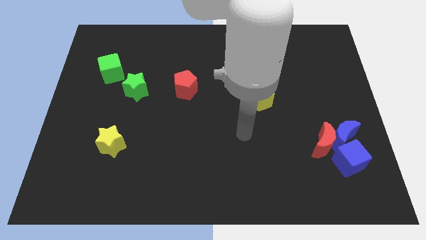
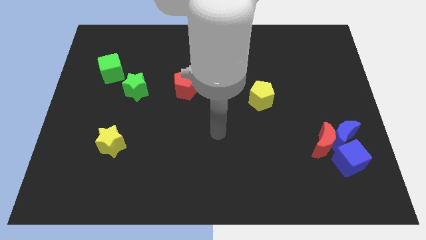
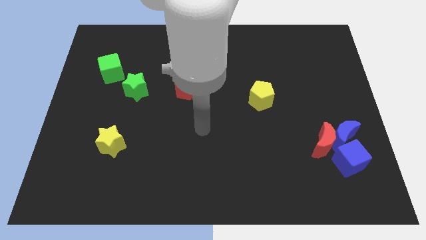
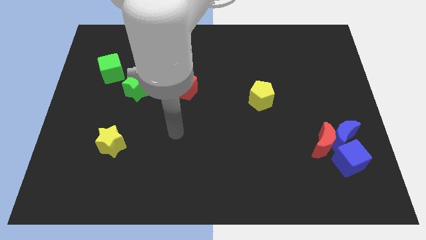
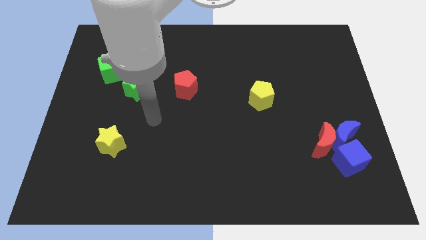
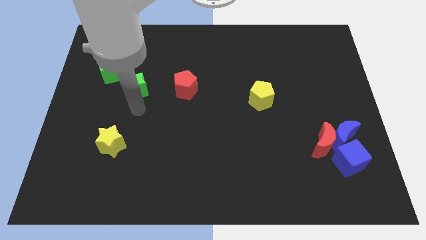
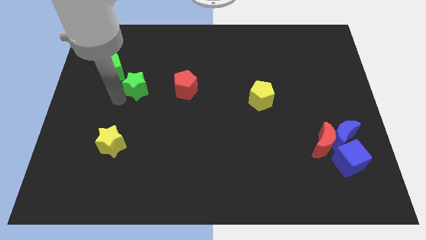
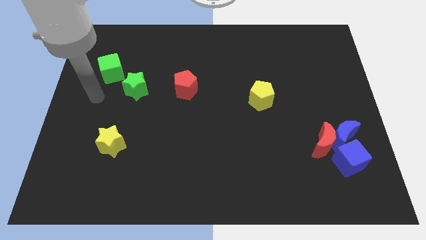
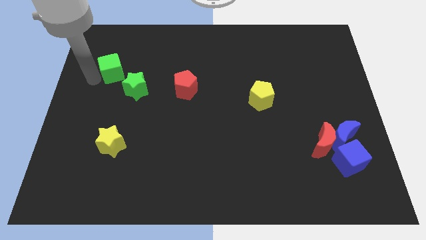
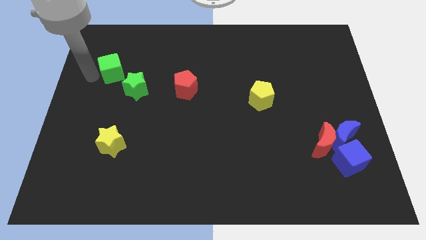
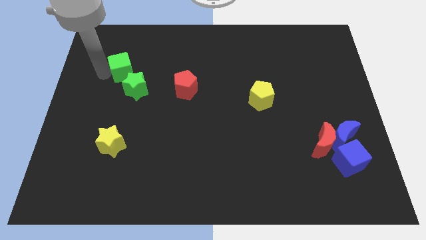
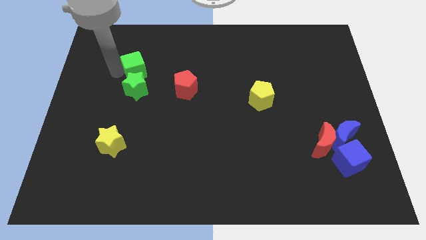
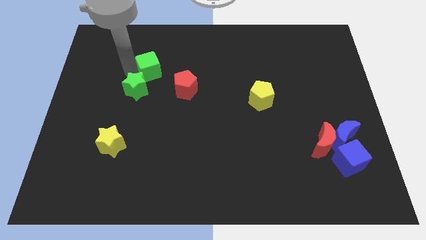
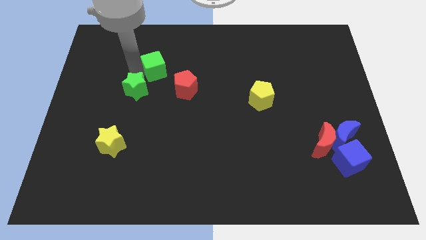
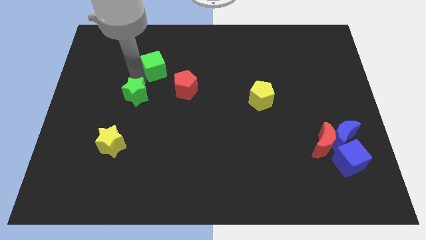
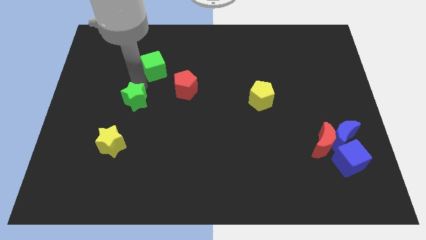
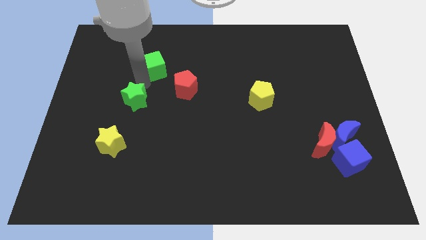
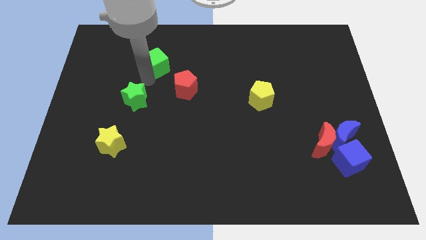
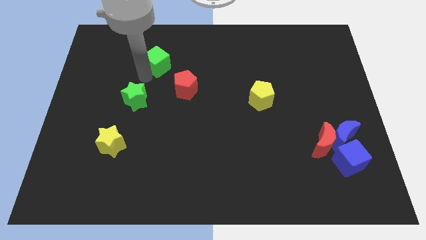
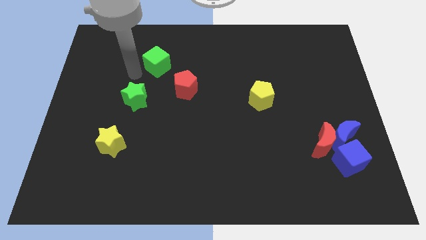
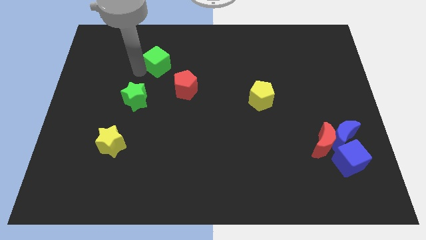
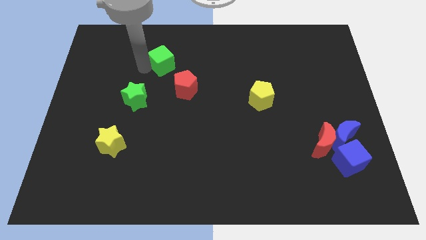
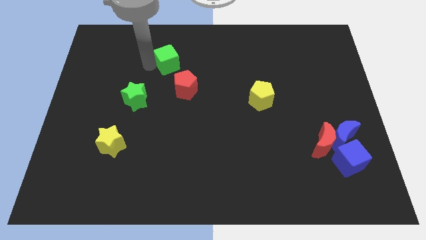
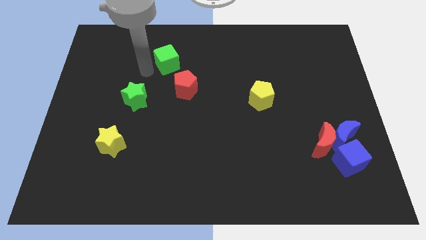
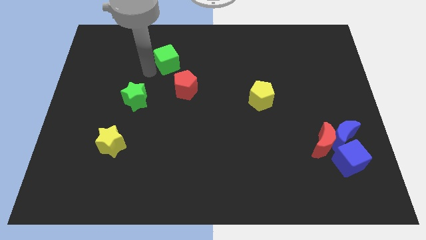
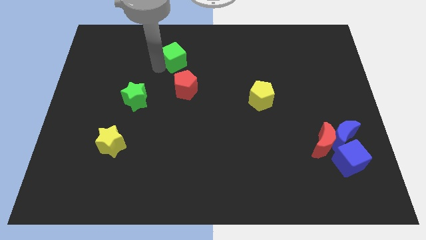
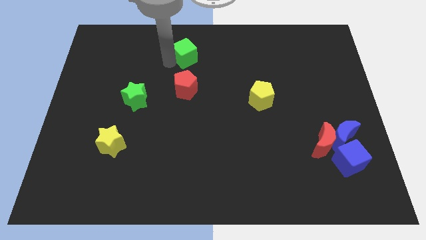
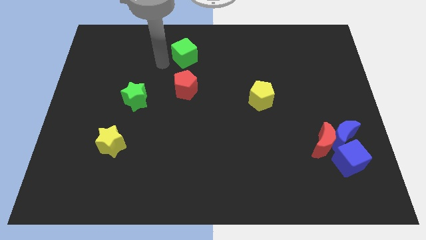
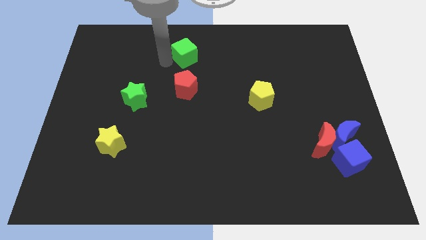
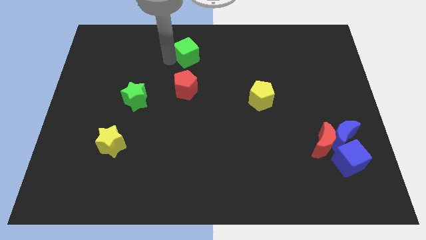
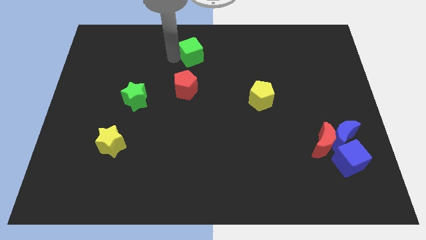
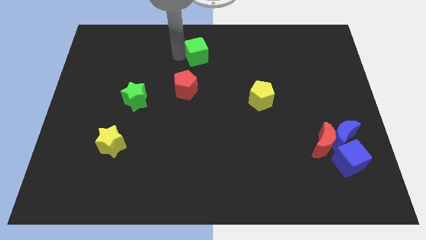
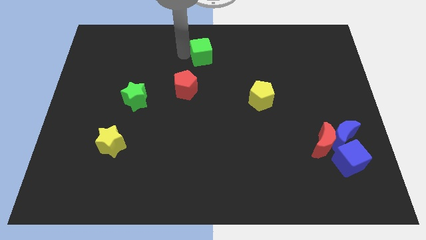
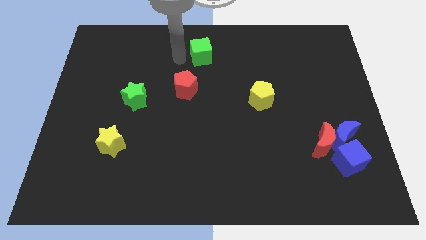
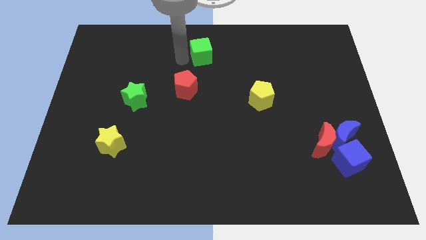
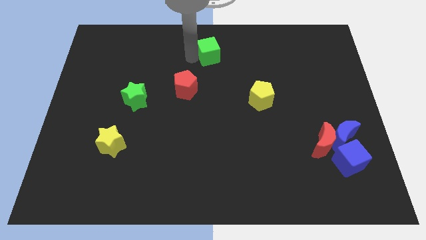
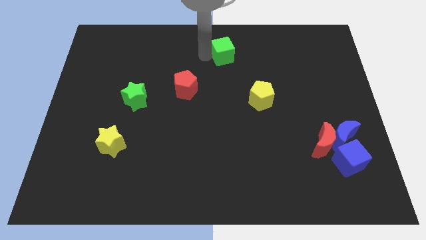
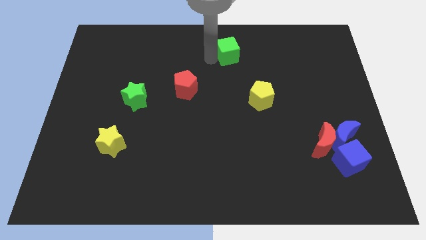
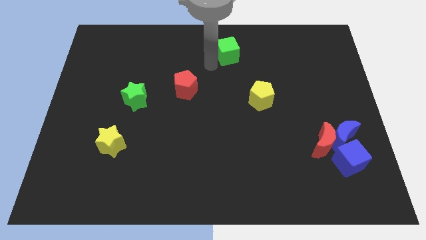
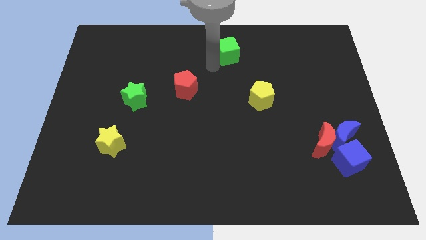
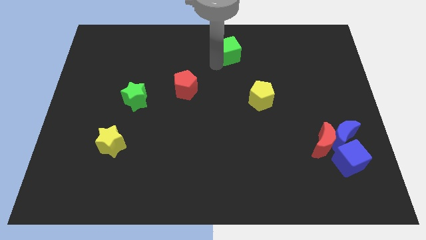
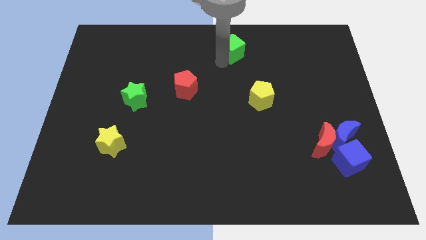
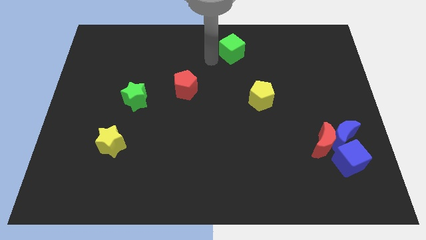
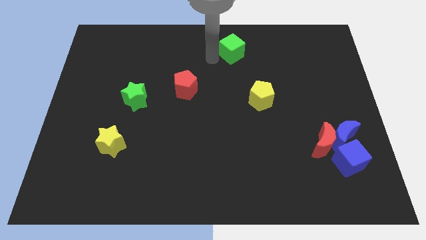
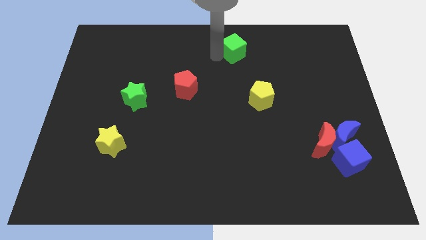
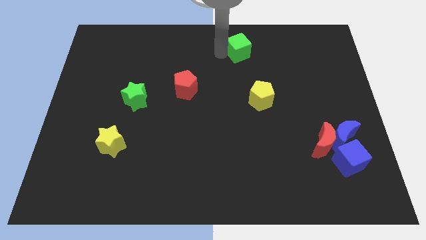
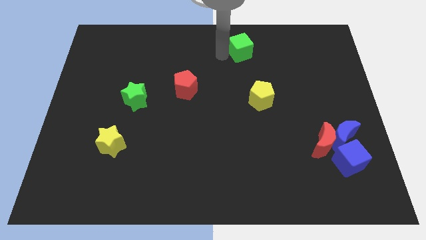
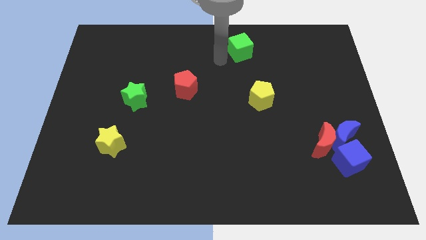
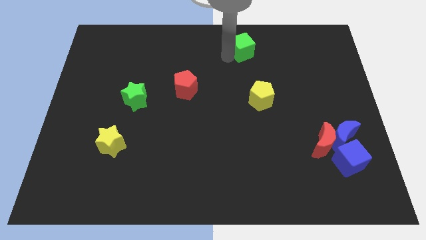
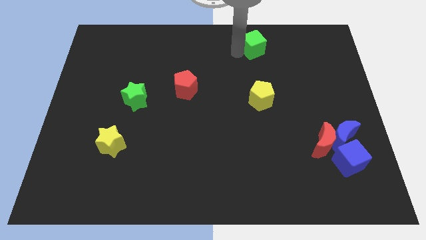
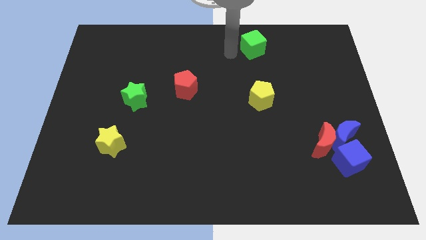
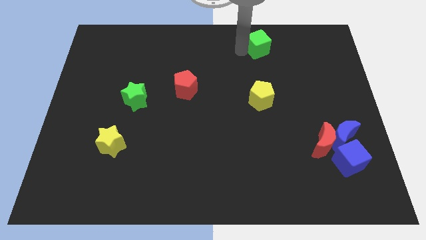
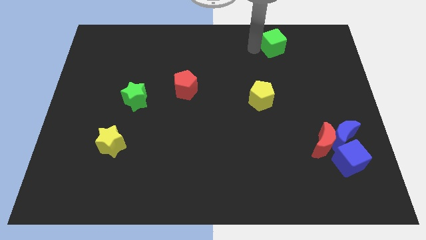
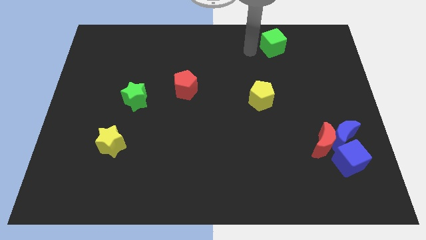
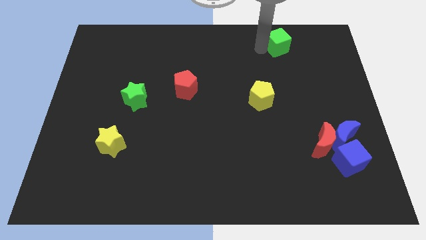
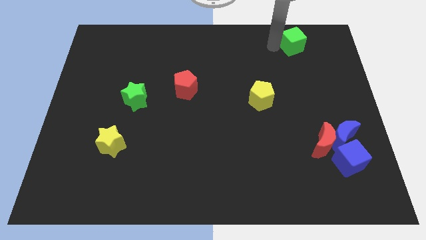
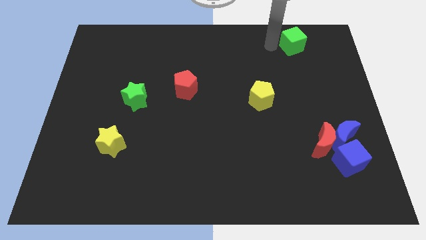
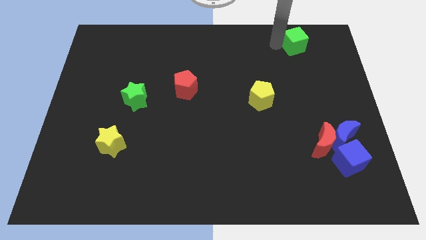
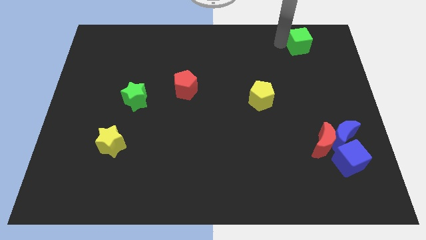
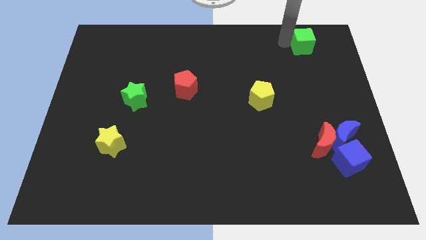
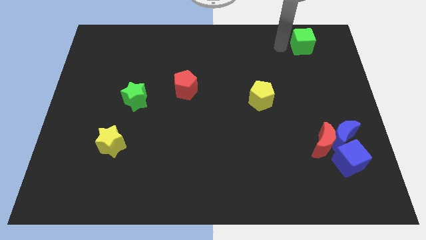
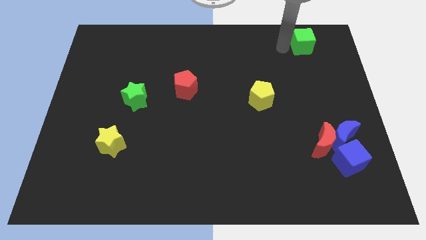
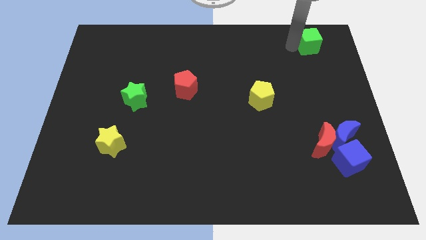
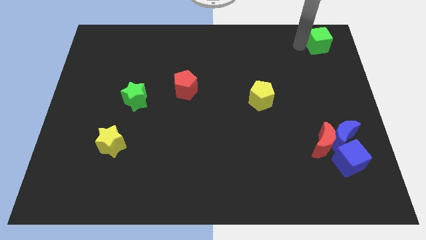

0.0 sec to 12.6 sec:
put the green cube to the upper right corner
